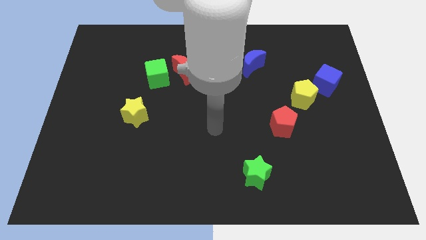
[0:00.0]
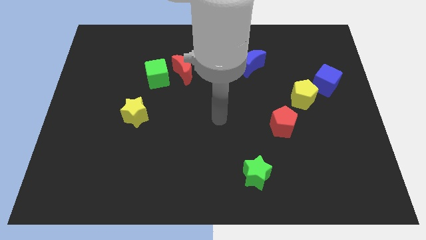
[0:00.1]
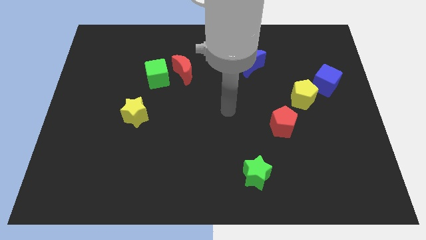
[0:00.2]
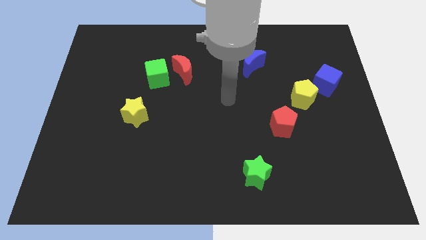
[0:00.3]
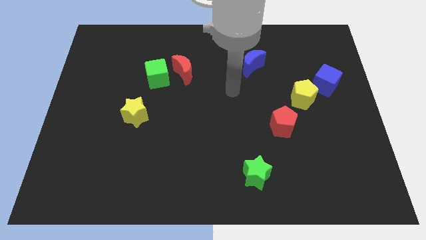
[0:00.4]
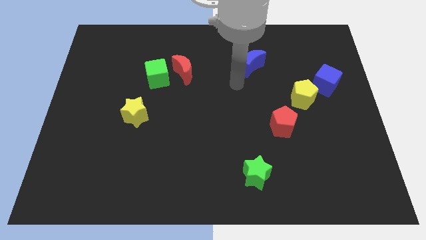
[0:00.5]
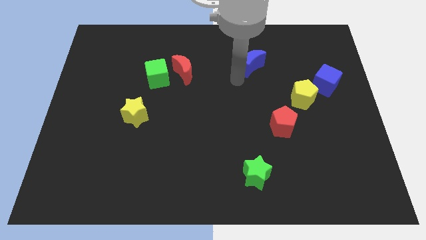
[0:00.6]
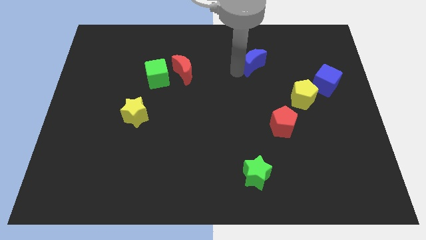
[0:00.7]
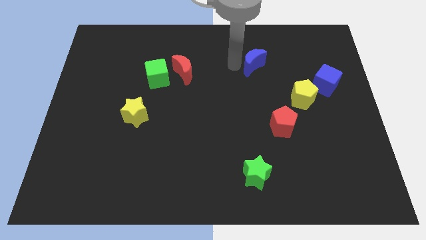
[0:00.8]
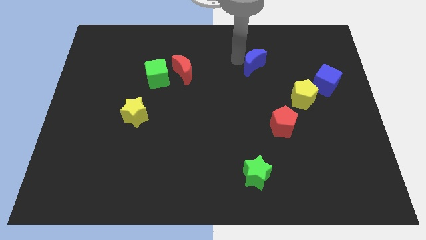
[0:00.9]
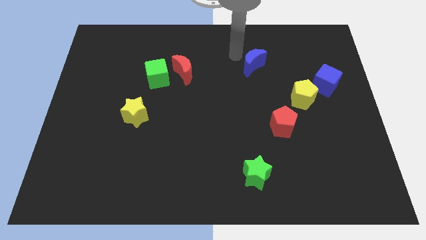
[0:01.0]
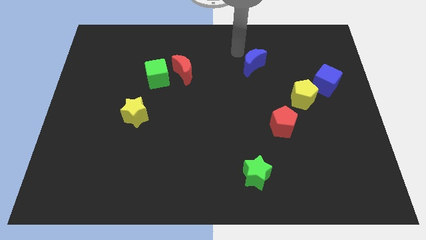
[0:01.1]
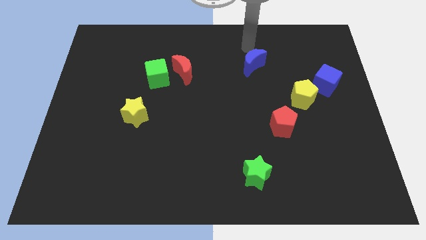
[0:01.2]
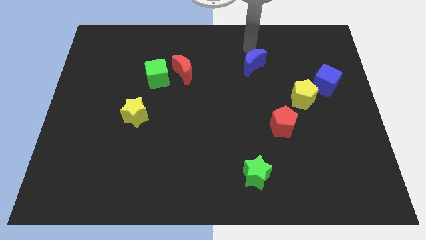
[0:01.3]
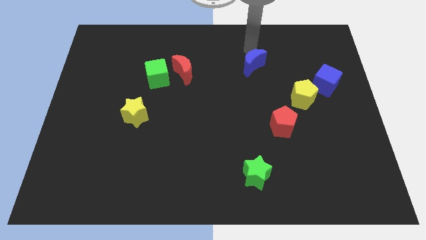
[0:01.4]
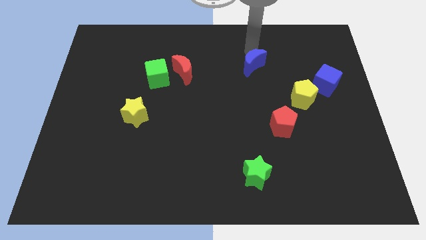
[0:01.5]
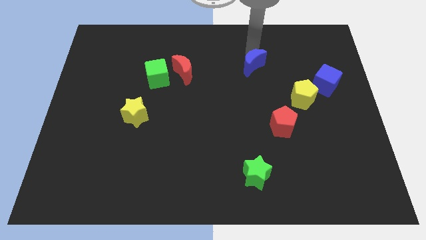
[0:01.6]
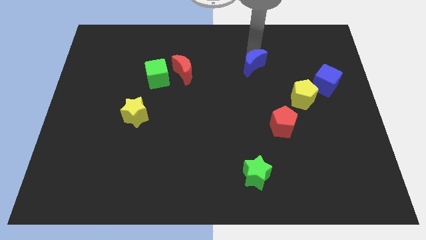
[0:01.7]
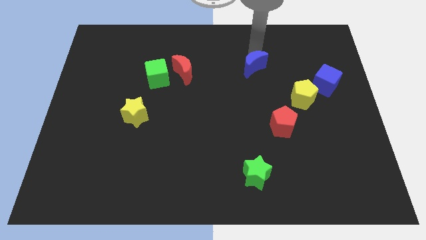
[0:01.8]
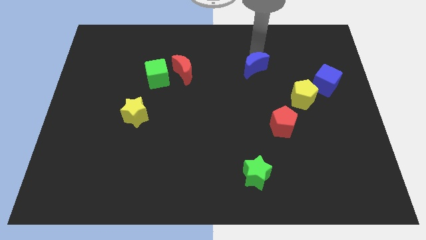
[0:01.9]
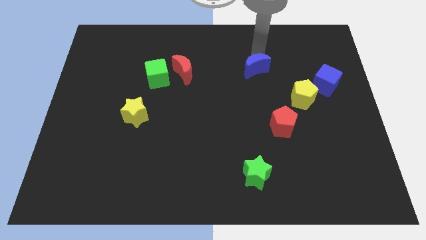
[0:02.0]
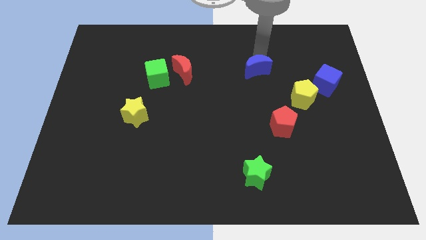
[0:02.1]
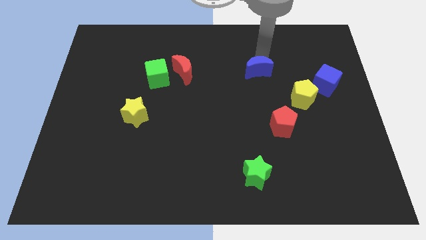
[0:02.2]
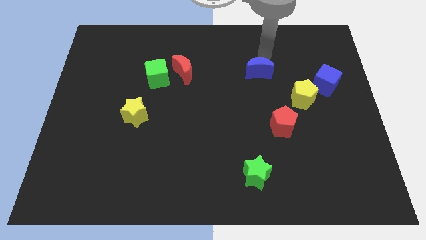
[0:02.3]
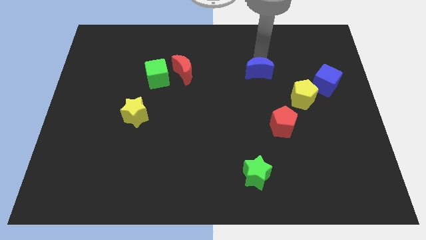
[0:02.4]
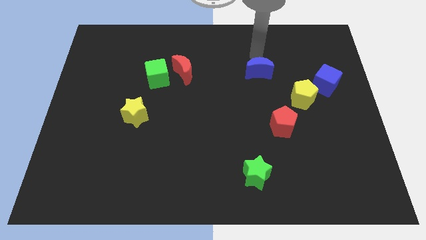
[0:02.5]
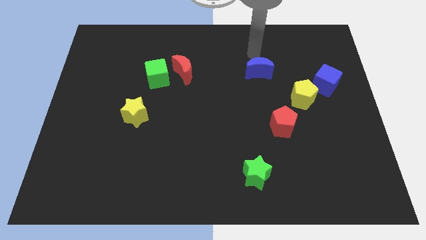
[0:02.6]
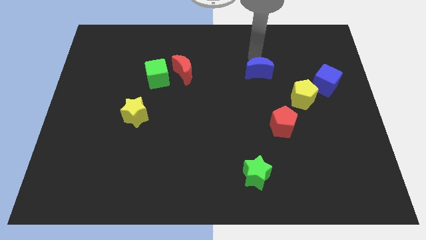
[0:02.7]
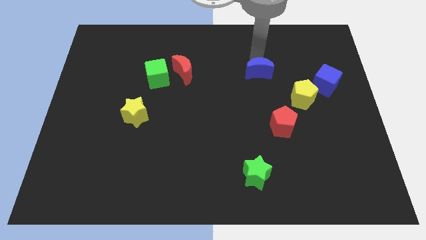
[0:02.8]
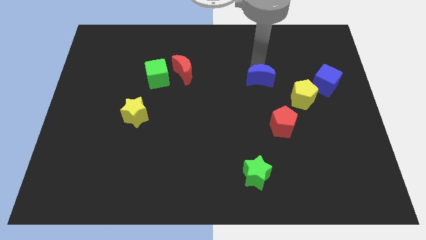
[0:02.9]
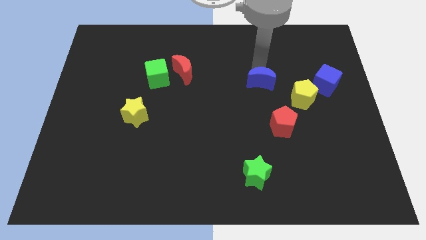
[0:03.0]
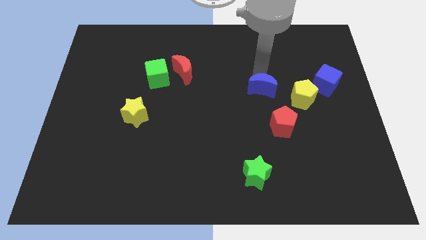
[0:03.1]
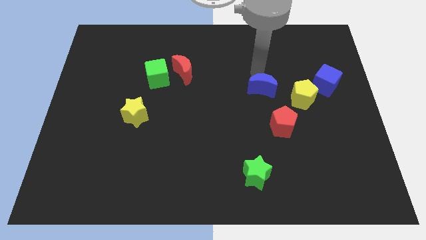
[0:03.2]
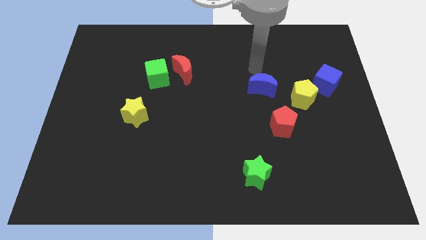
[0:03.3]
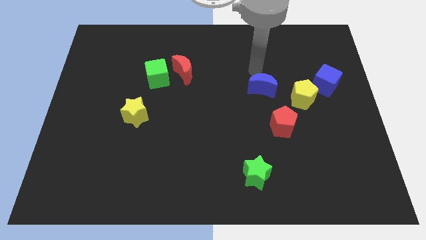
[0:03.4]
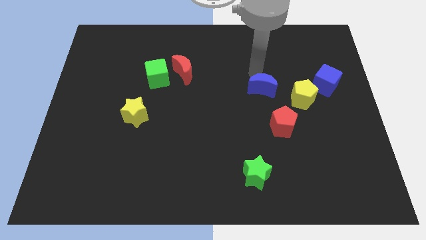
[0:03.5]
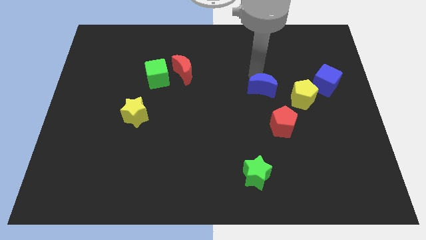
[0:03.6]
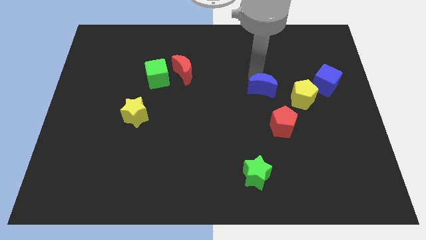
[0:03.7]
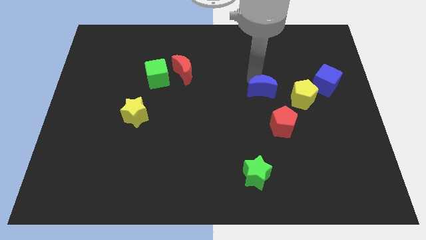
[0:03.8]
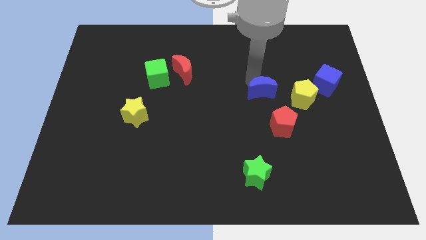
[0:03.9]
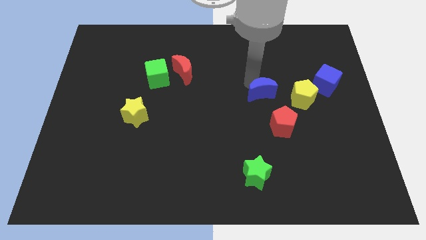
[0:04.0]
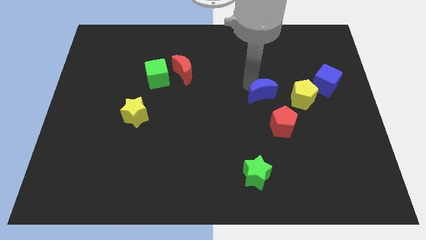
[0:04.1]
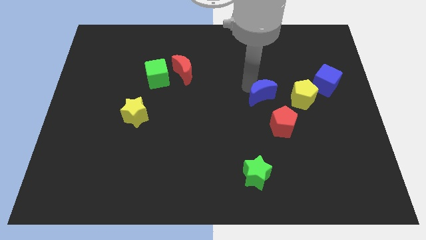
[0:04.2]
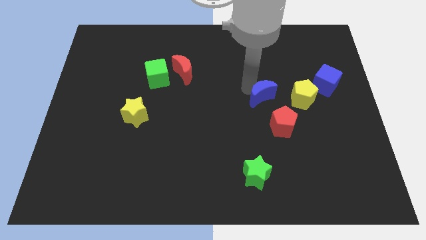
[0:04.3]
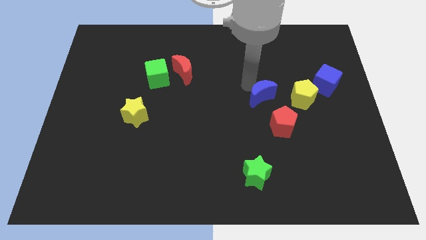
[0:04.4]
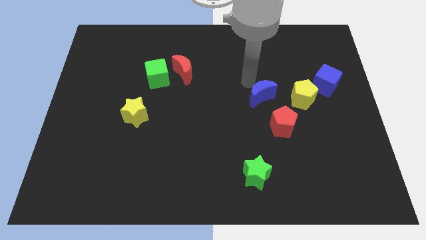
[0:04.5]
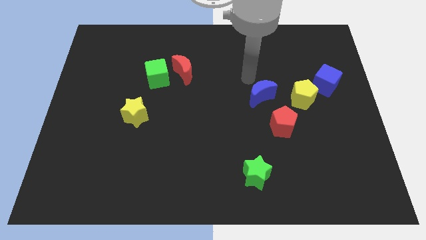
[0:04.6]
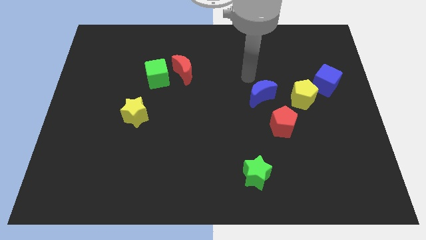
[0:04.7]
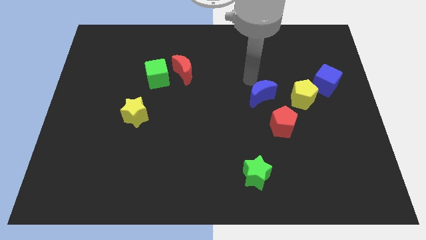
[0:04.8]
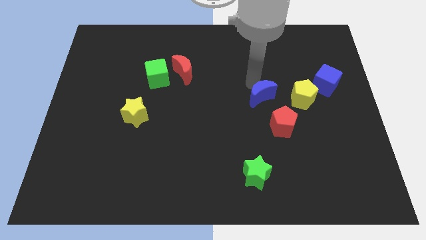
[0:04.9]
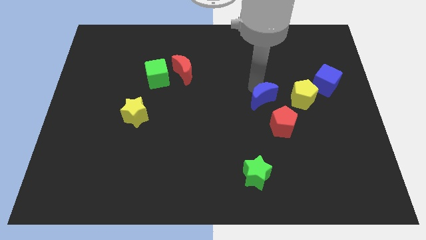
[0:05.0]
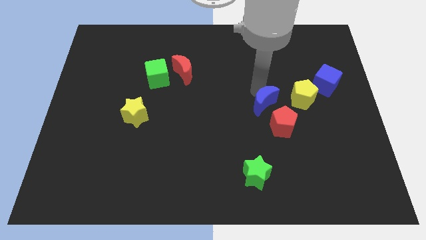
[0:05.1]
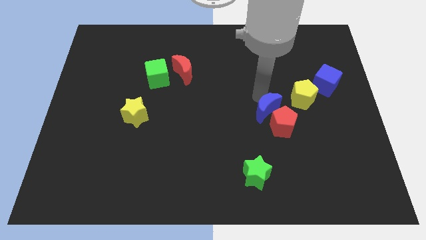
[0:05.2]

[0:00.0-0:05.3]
put the blue moon to the red pentagon

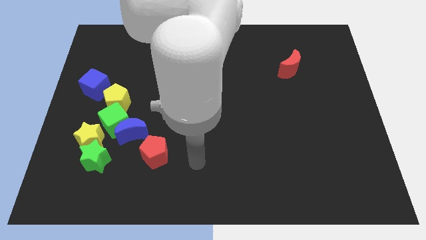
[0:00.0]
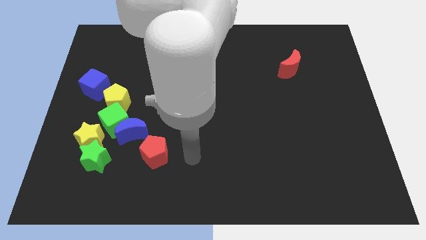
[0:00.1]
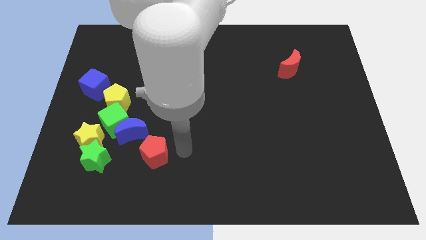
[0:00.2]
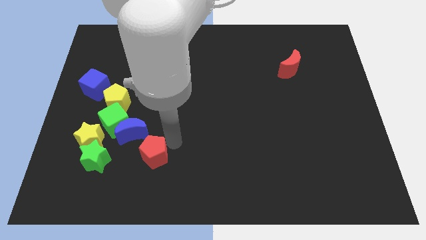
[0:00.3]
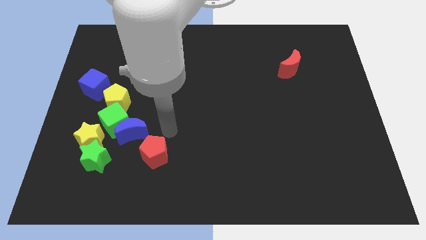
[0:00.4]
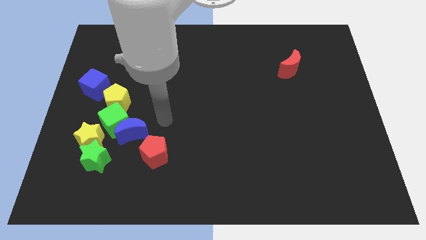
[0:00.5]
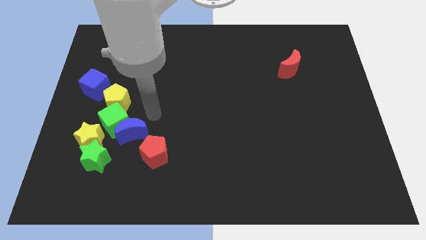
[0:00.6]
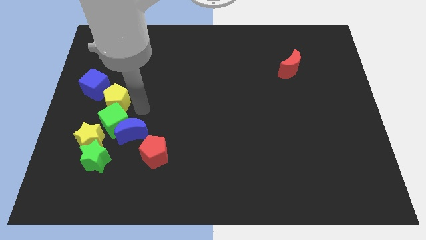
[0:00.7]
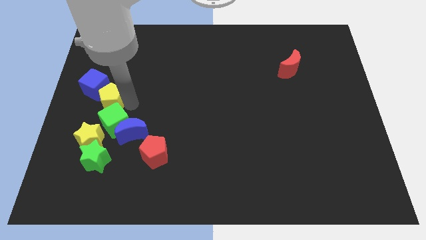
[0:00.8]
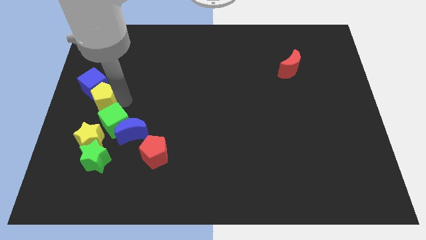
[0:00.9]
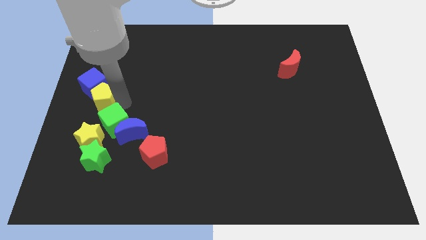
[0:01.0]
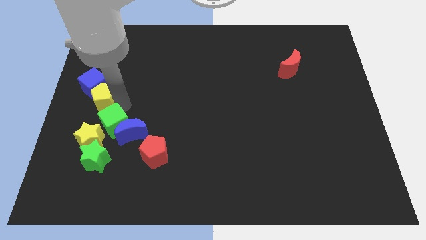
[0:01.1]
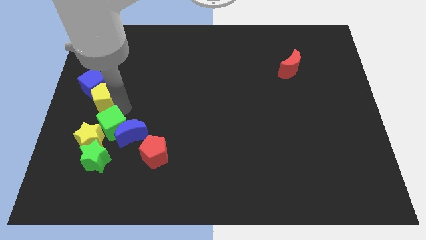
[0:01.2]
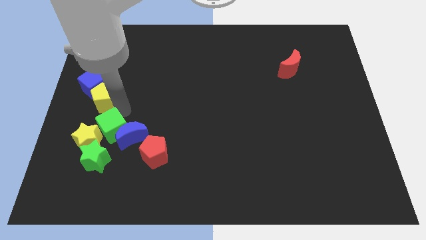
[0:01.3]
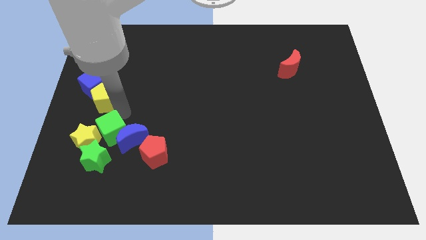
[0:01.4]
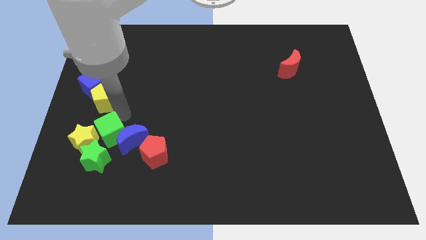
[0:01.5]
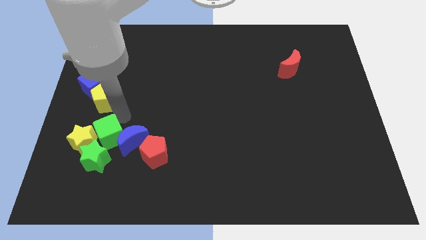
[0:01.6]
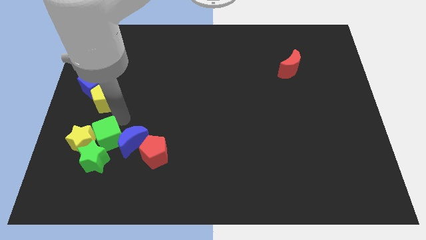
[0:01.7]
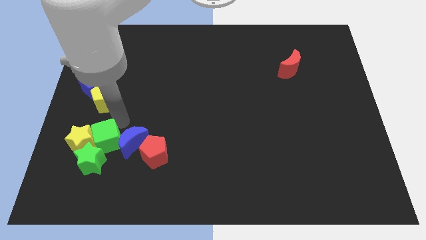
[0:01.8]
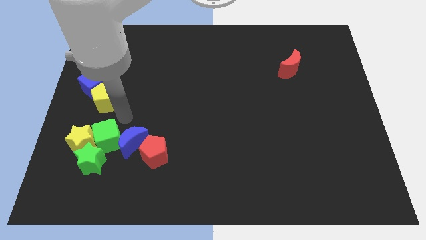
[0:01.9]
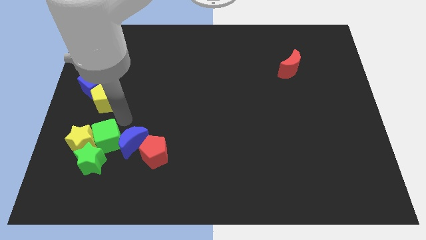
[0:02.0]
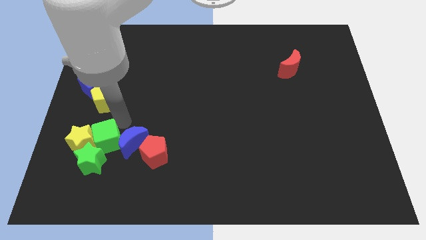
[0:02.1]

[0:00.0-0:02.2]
move the green cube to the green star
